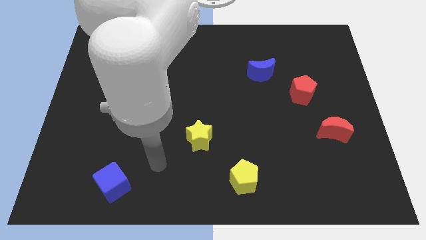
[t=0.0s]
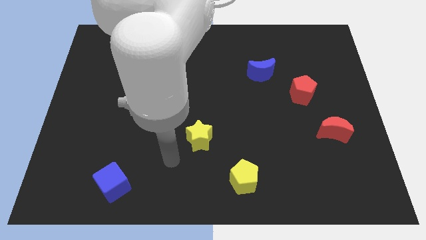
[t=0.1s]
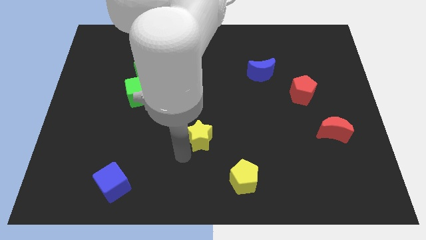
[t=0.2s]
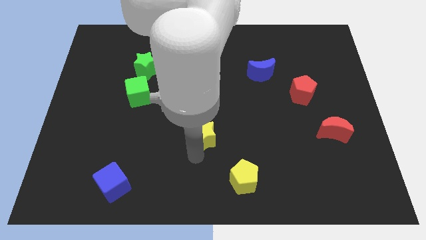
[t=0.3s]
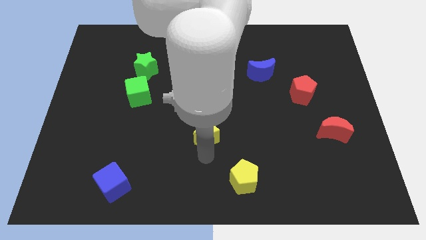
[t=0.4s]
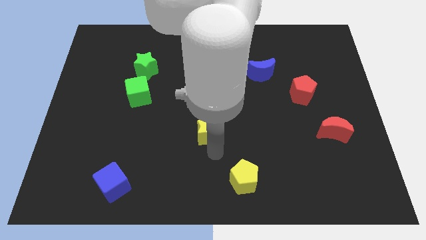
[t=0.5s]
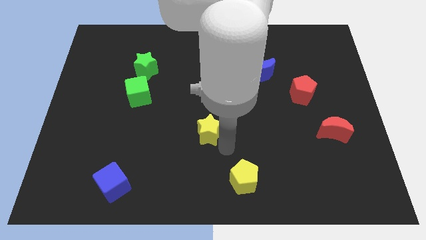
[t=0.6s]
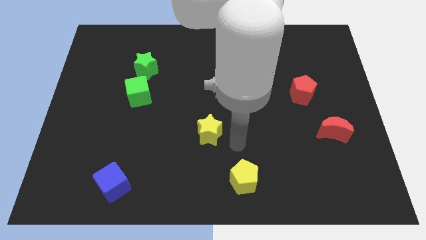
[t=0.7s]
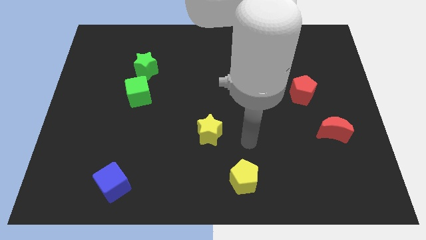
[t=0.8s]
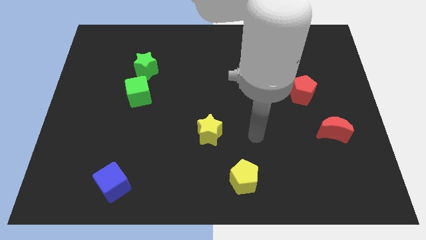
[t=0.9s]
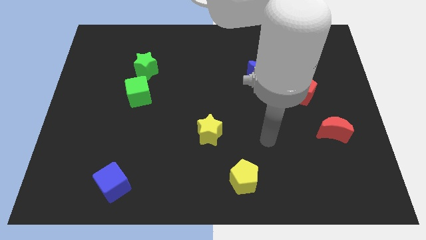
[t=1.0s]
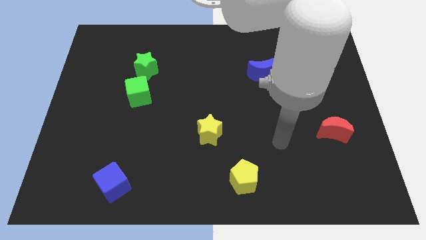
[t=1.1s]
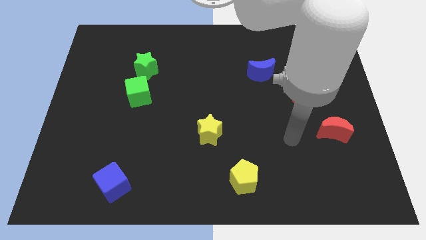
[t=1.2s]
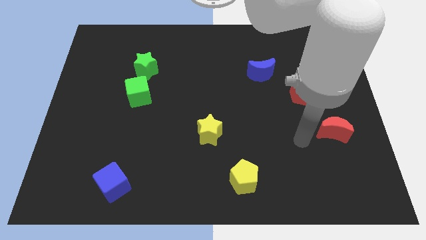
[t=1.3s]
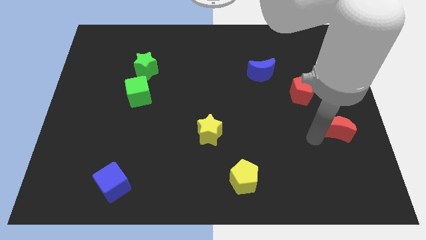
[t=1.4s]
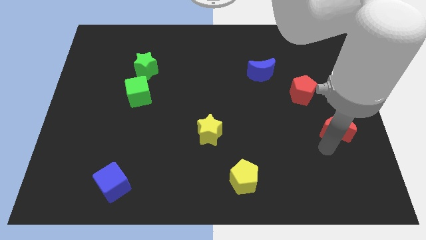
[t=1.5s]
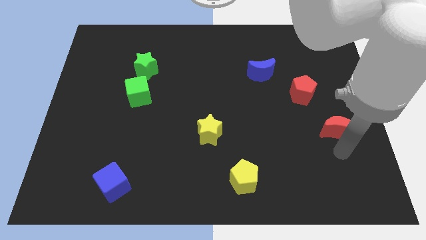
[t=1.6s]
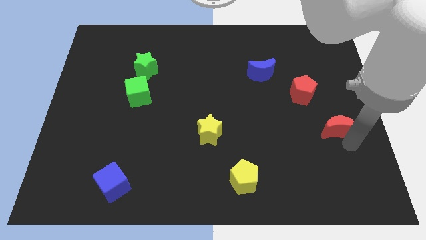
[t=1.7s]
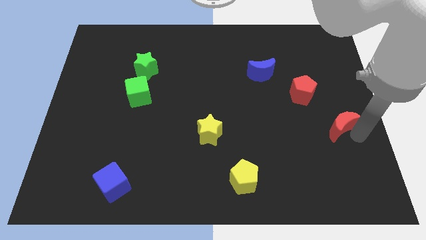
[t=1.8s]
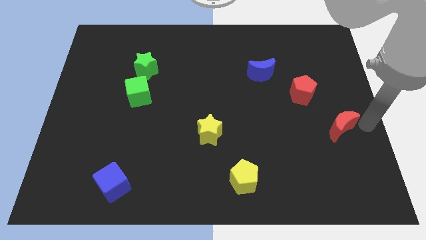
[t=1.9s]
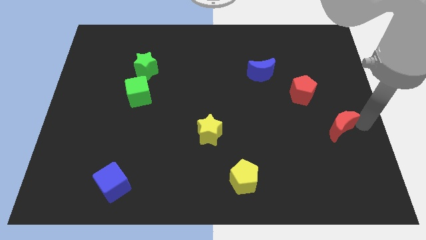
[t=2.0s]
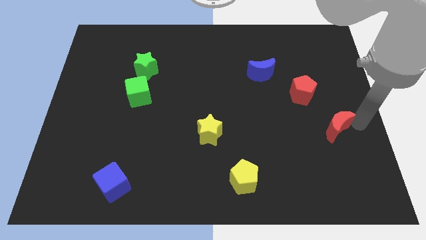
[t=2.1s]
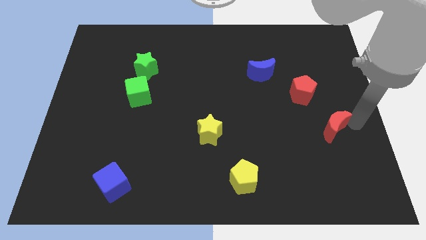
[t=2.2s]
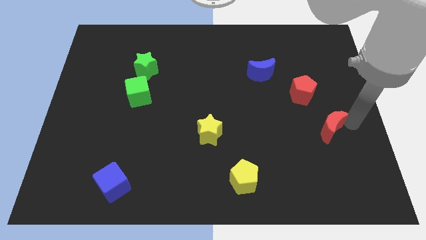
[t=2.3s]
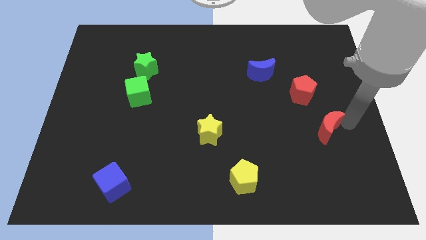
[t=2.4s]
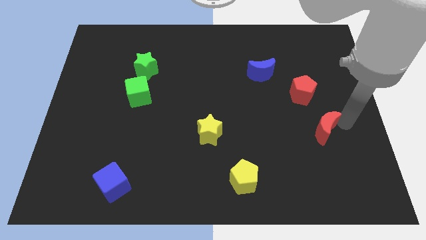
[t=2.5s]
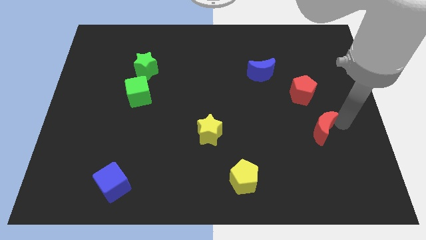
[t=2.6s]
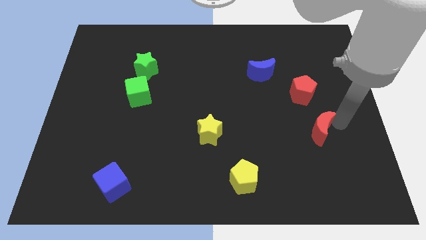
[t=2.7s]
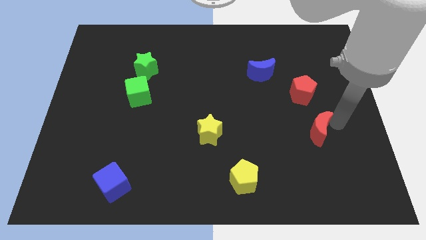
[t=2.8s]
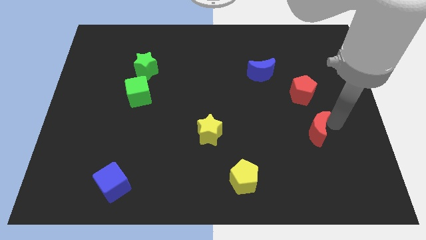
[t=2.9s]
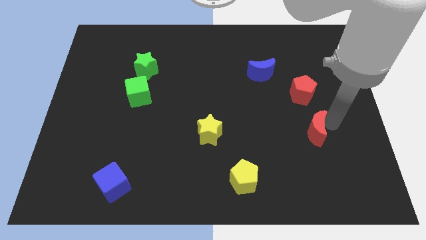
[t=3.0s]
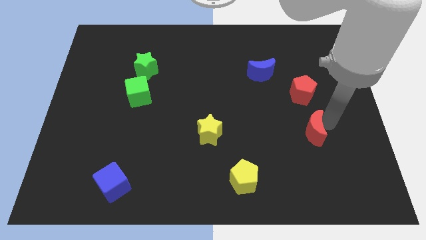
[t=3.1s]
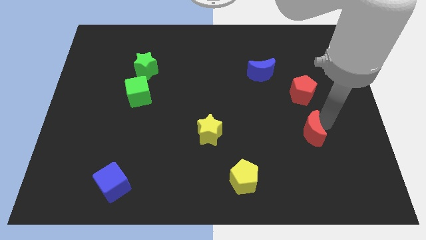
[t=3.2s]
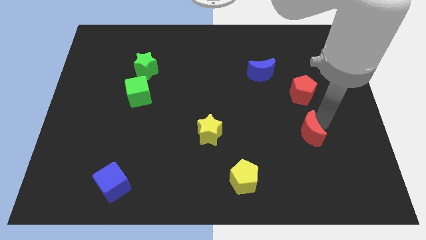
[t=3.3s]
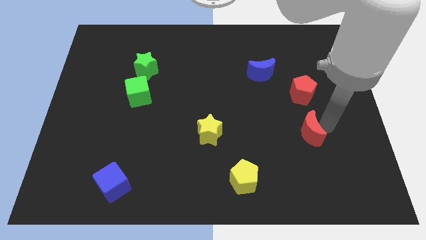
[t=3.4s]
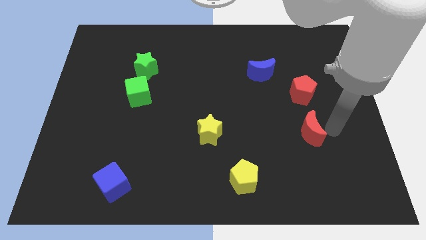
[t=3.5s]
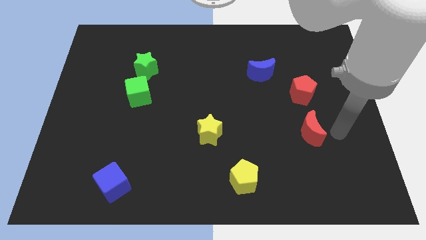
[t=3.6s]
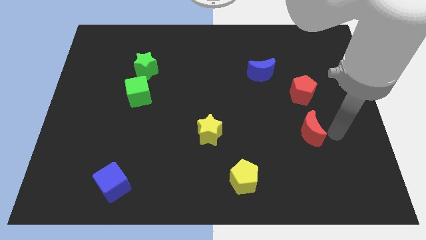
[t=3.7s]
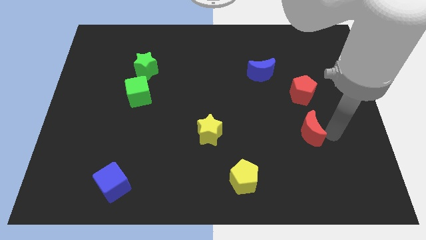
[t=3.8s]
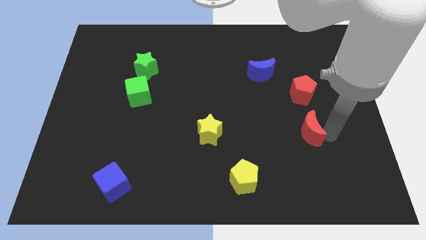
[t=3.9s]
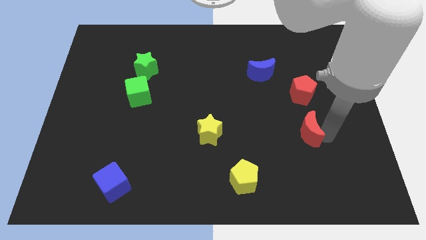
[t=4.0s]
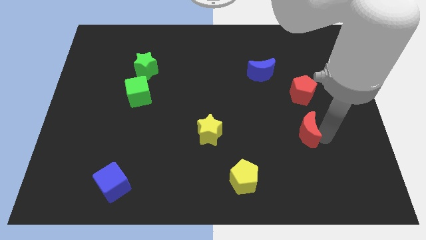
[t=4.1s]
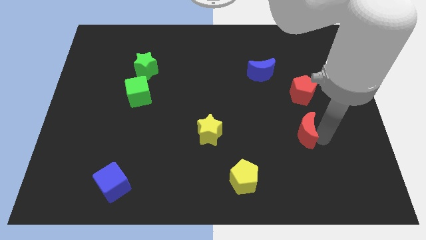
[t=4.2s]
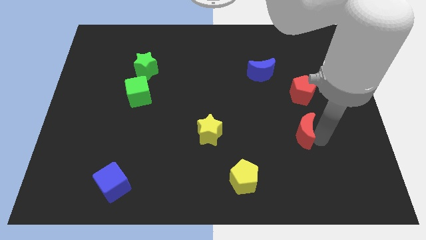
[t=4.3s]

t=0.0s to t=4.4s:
slightly move the red moon to the left

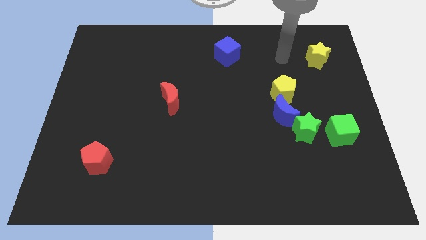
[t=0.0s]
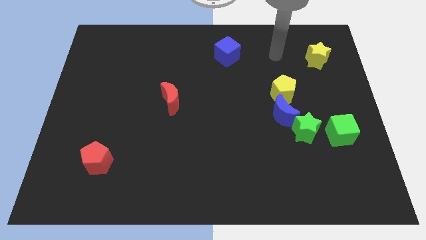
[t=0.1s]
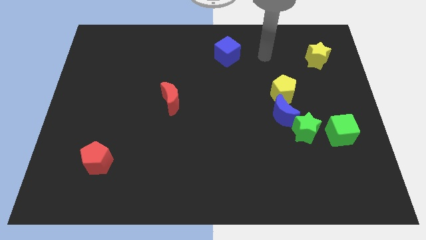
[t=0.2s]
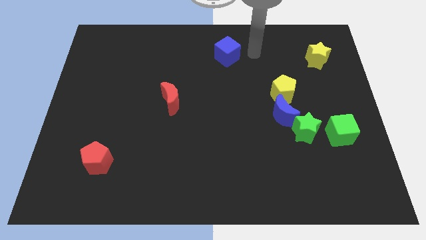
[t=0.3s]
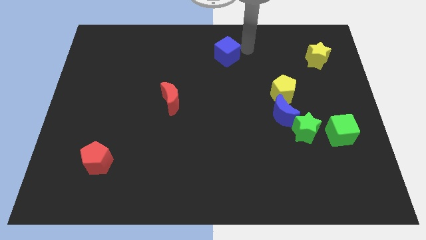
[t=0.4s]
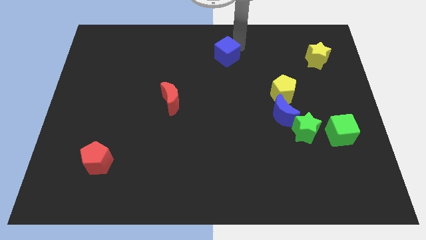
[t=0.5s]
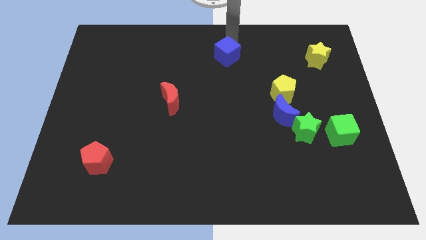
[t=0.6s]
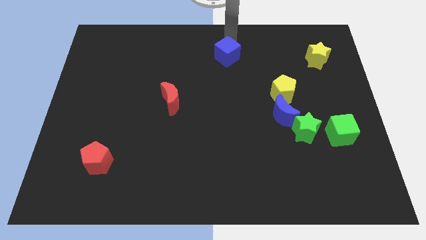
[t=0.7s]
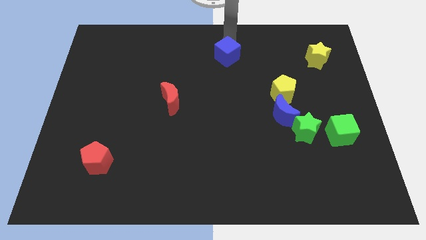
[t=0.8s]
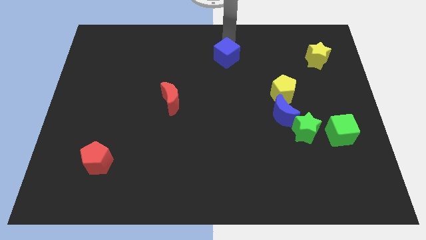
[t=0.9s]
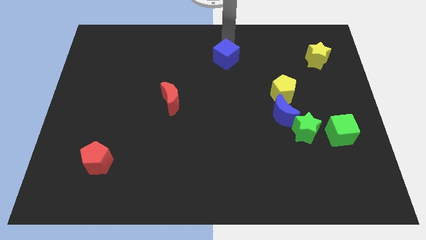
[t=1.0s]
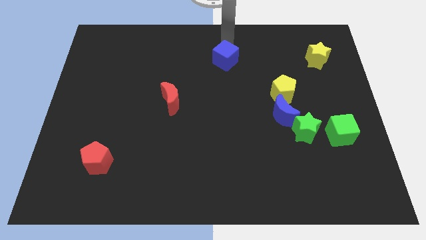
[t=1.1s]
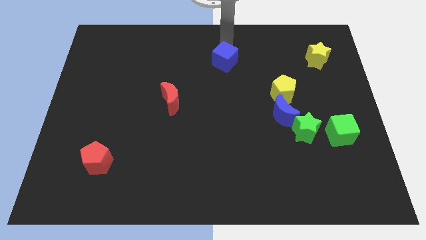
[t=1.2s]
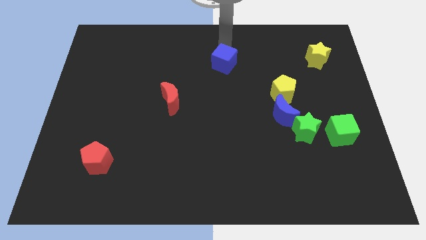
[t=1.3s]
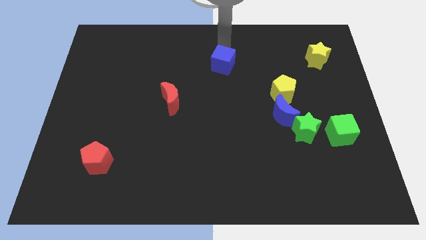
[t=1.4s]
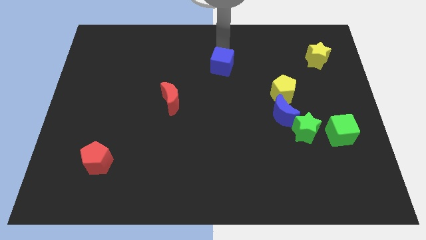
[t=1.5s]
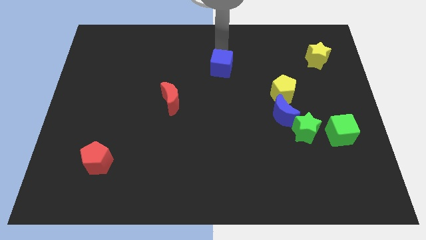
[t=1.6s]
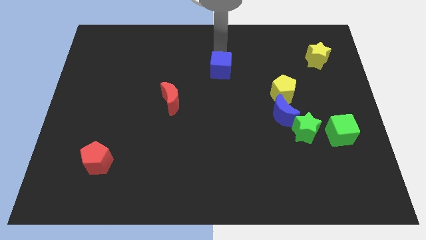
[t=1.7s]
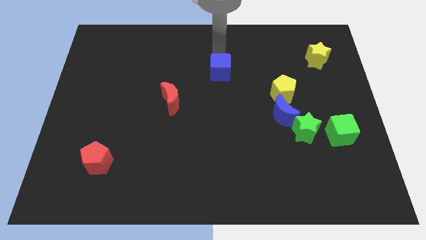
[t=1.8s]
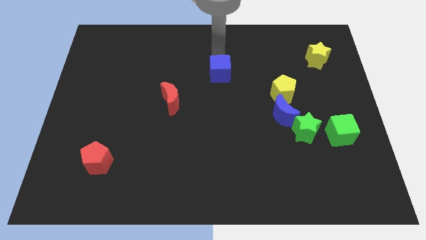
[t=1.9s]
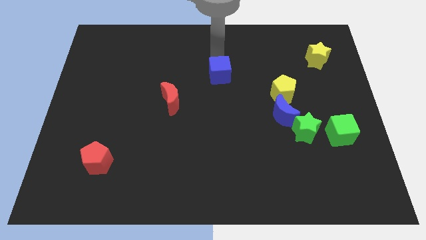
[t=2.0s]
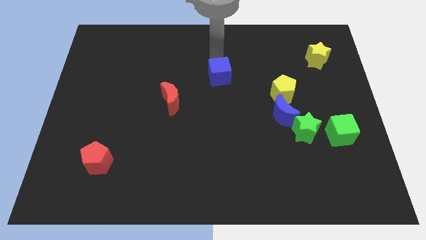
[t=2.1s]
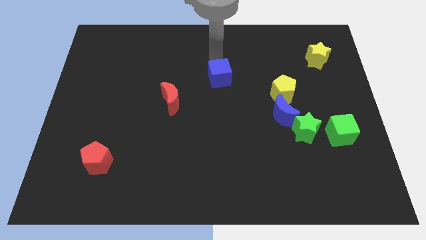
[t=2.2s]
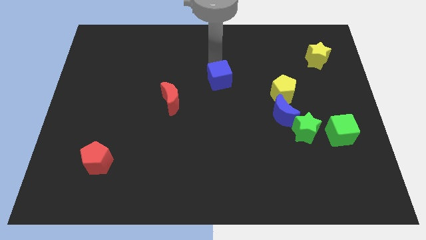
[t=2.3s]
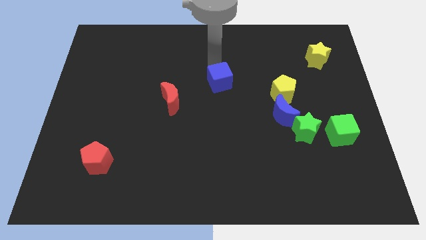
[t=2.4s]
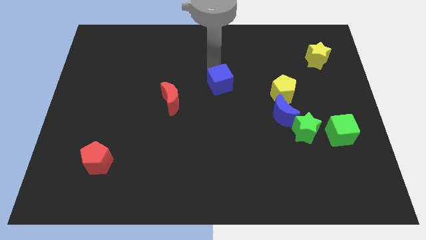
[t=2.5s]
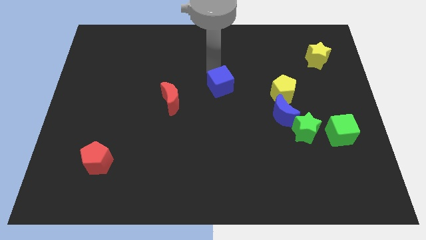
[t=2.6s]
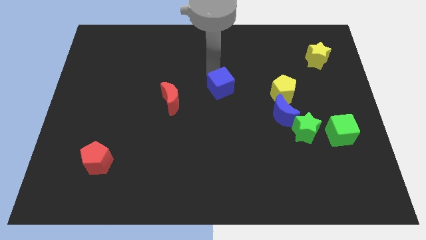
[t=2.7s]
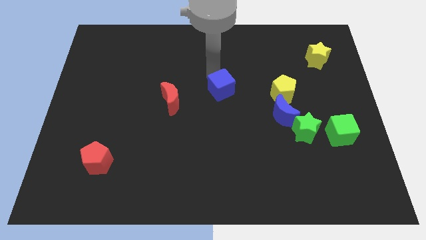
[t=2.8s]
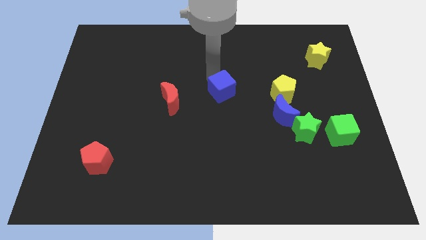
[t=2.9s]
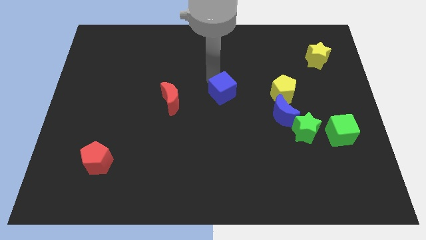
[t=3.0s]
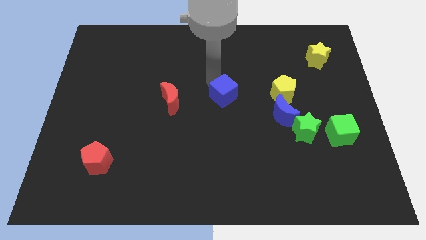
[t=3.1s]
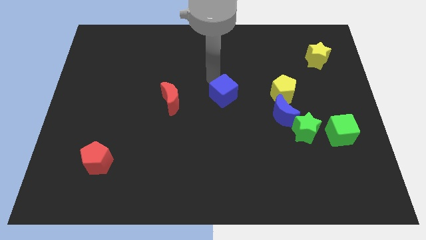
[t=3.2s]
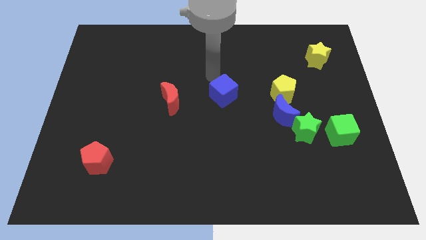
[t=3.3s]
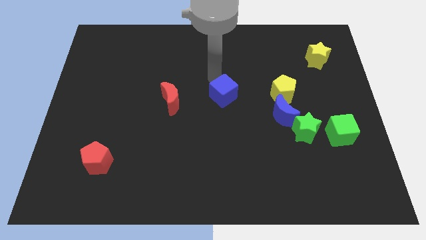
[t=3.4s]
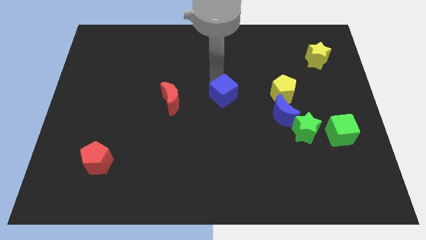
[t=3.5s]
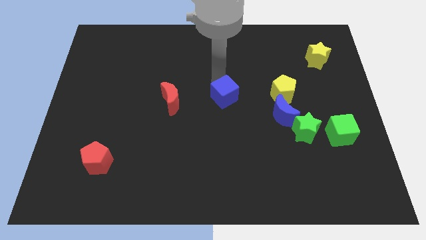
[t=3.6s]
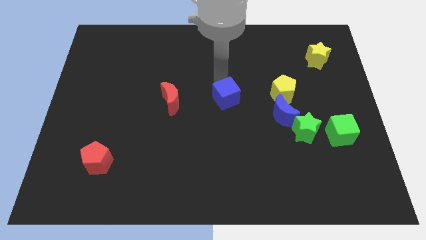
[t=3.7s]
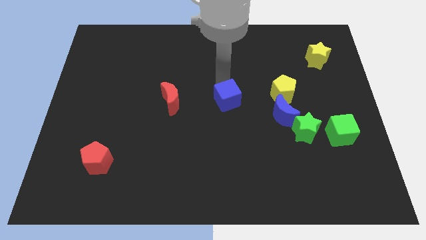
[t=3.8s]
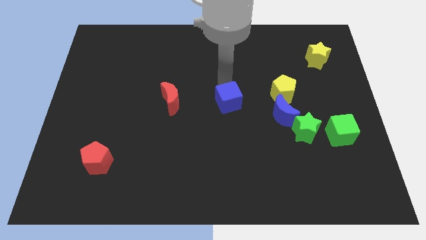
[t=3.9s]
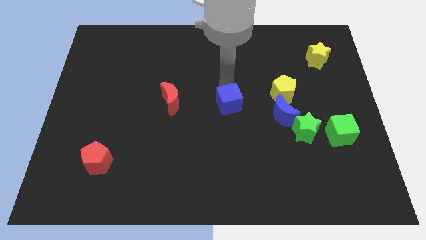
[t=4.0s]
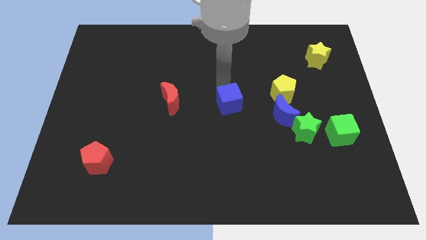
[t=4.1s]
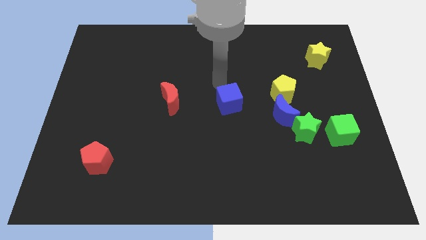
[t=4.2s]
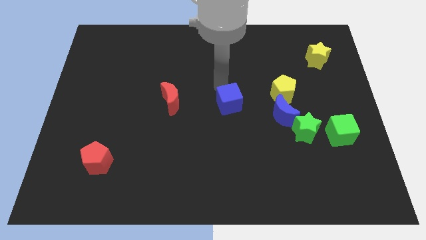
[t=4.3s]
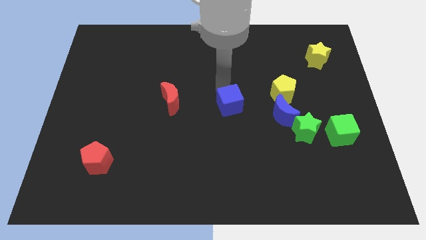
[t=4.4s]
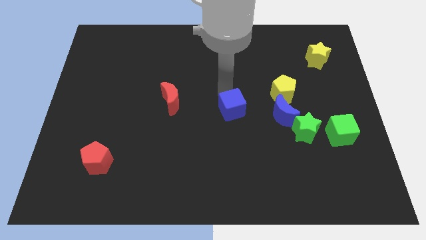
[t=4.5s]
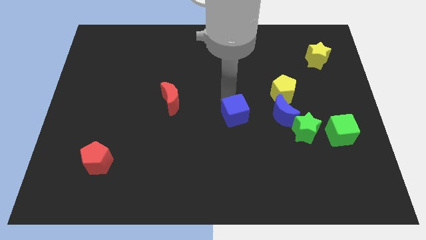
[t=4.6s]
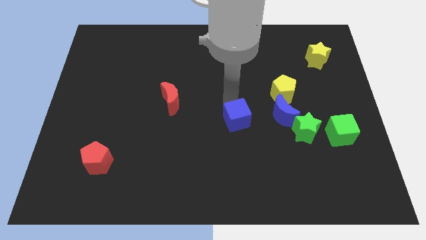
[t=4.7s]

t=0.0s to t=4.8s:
slide the blue cube down
